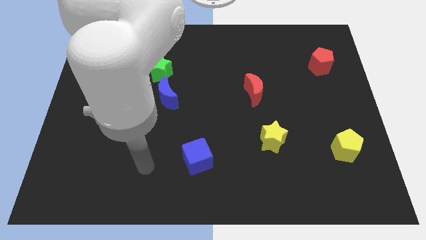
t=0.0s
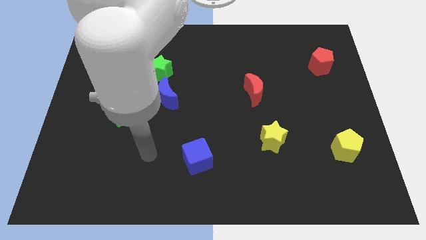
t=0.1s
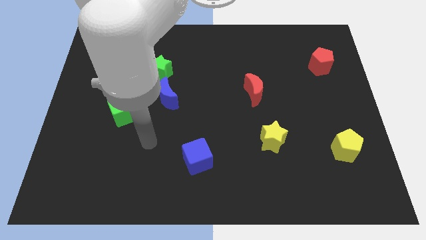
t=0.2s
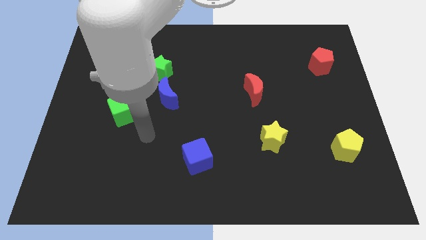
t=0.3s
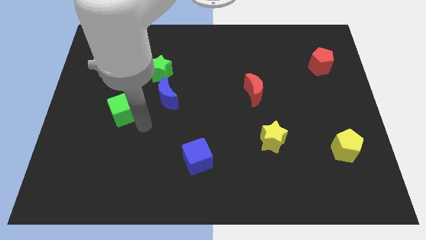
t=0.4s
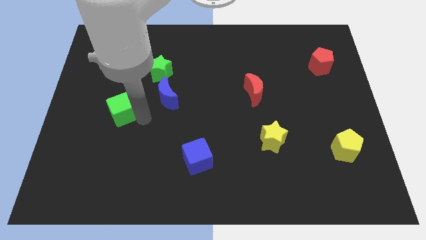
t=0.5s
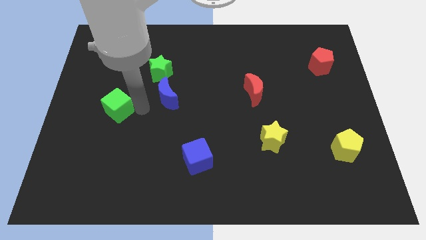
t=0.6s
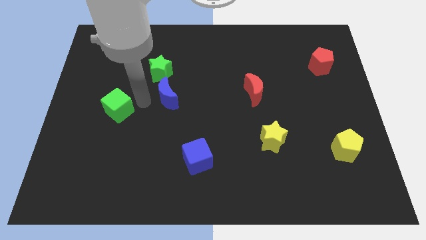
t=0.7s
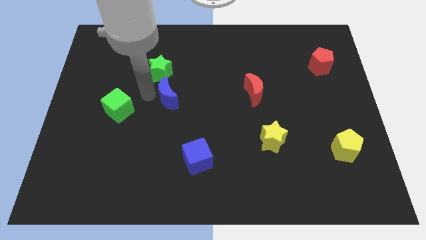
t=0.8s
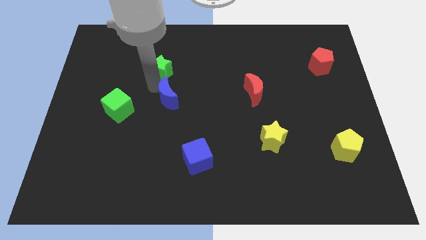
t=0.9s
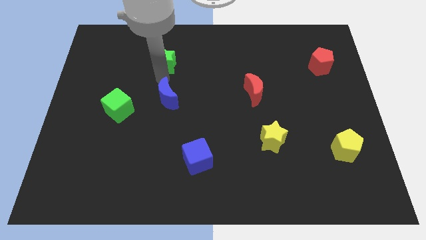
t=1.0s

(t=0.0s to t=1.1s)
pull the blue moon apart from the green star

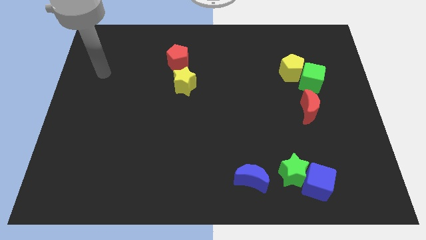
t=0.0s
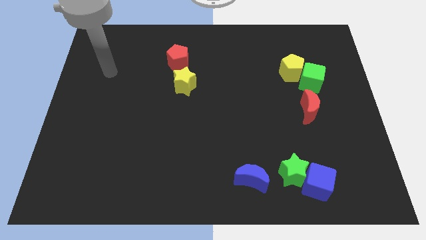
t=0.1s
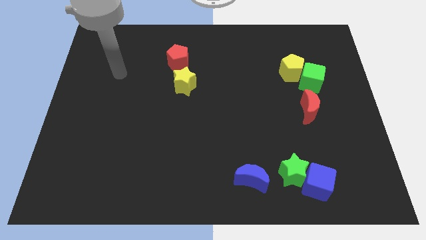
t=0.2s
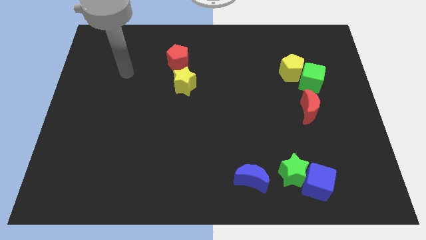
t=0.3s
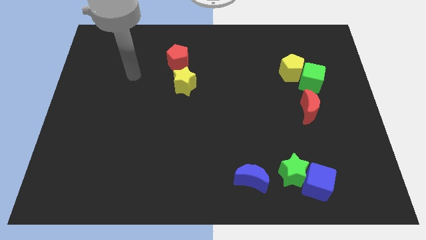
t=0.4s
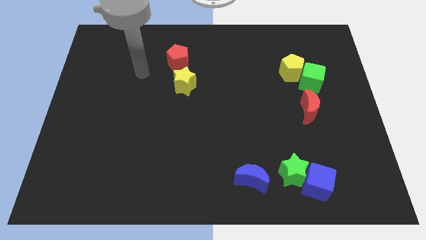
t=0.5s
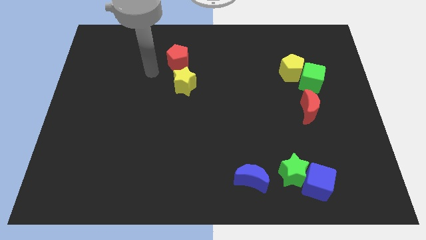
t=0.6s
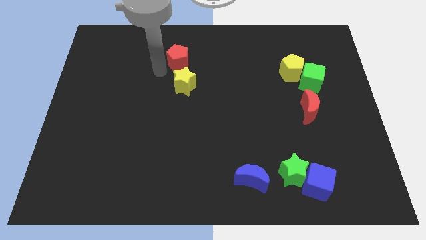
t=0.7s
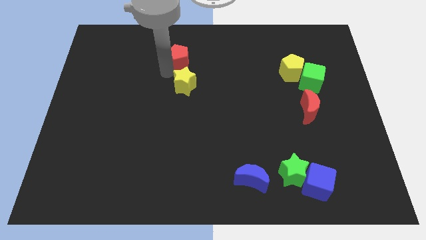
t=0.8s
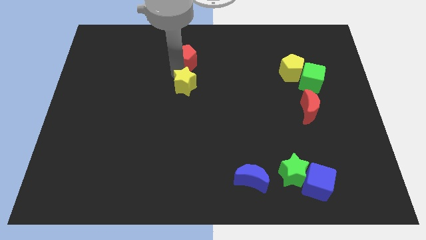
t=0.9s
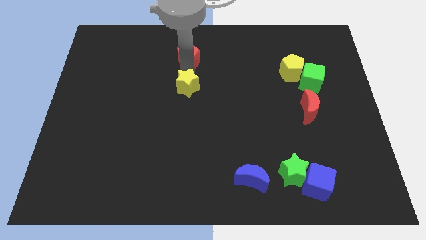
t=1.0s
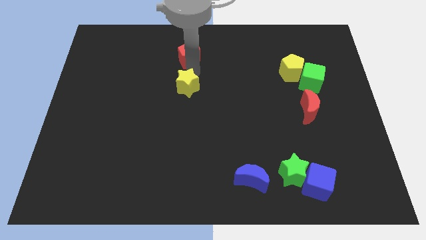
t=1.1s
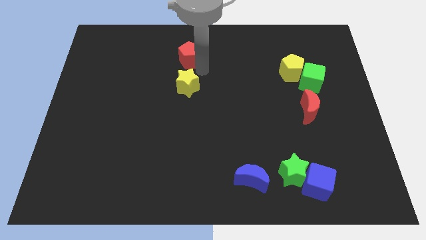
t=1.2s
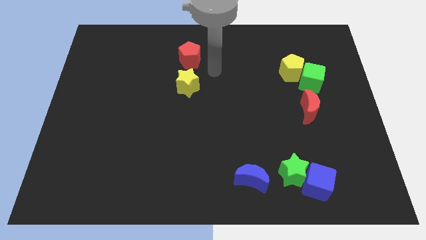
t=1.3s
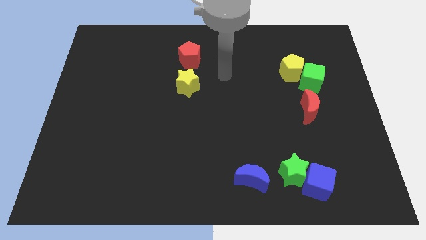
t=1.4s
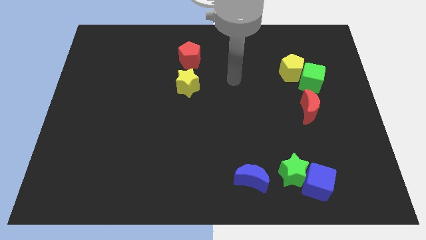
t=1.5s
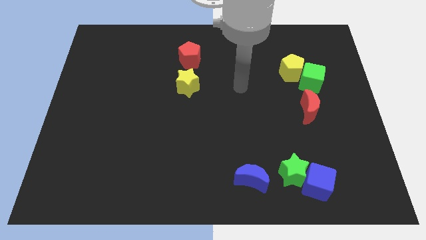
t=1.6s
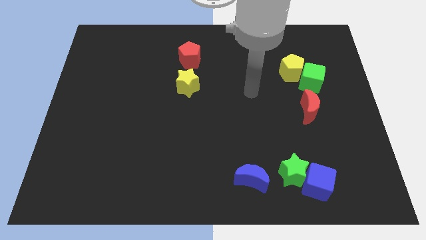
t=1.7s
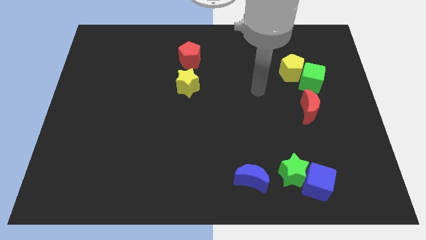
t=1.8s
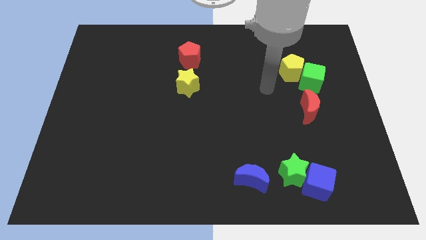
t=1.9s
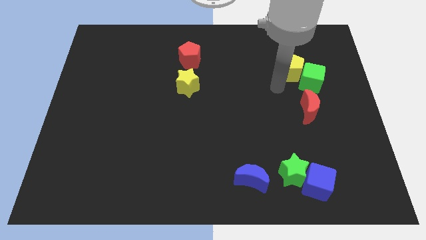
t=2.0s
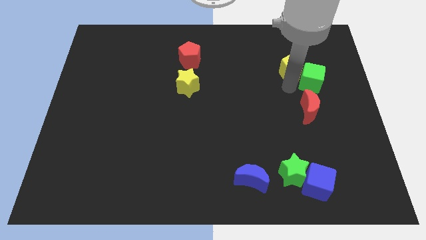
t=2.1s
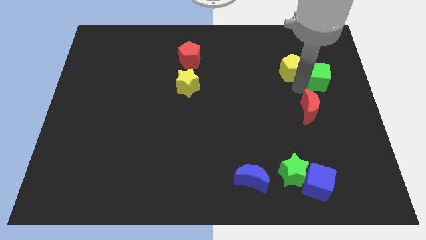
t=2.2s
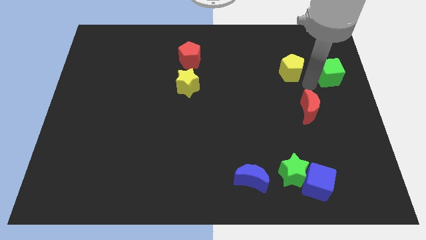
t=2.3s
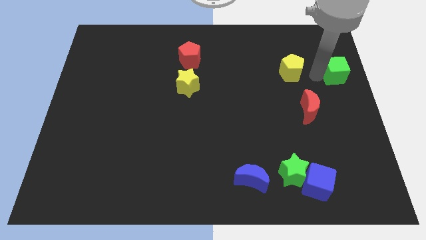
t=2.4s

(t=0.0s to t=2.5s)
separate the yellow pentagon from the green cube

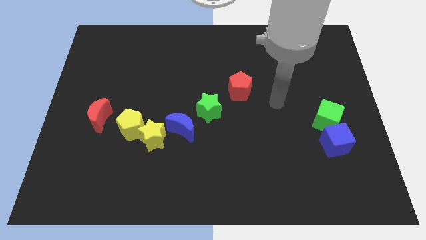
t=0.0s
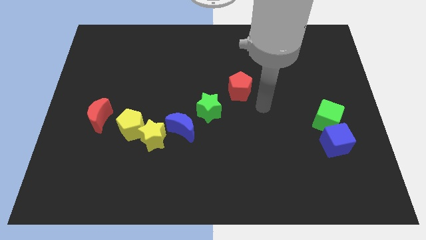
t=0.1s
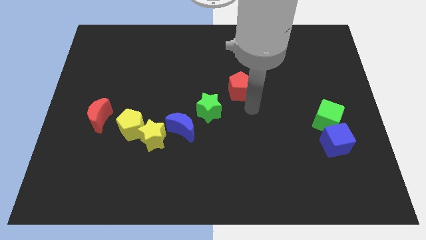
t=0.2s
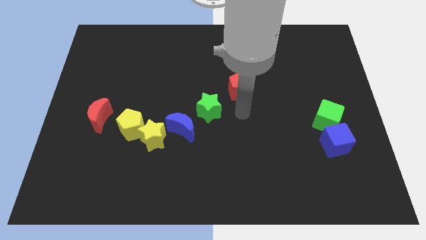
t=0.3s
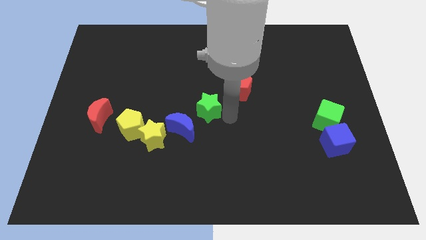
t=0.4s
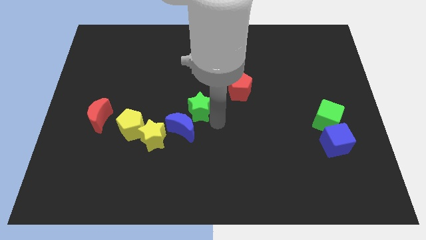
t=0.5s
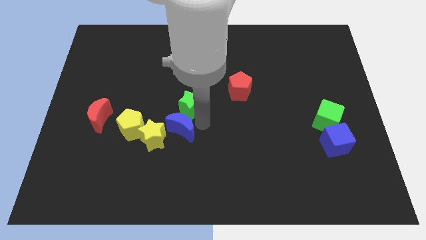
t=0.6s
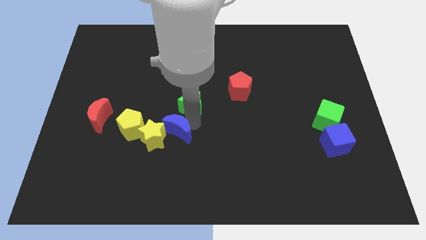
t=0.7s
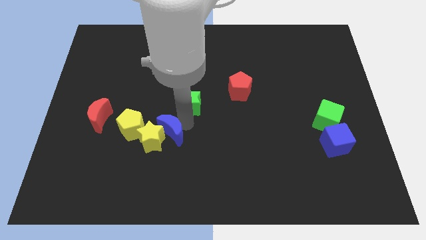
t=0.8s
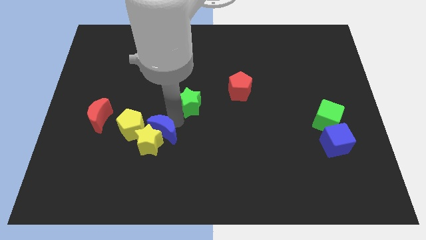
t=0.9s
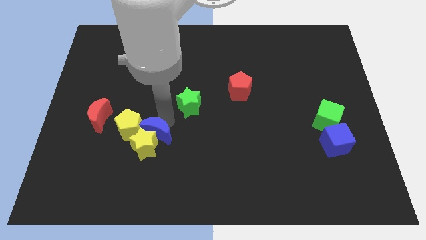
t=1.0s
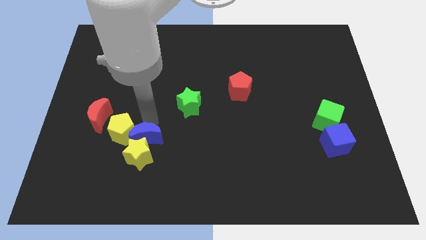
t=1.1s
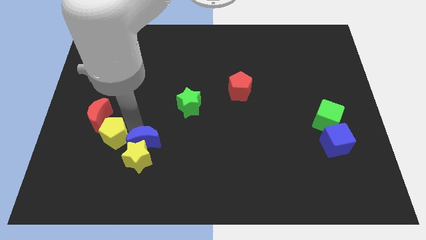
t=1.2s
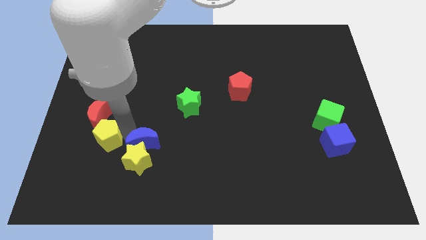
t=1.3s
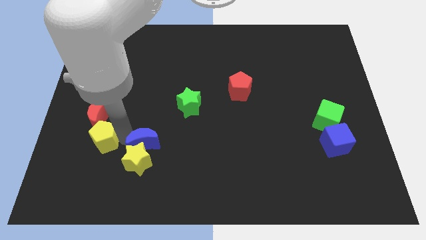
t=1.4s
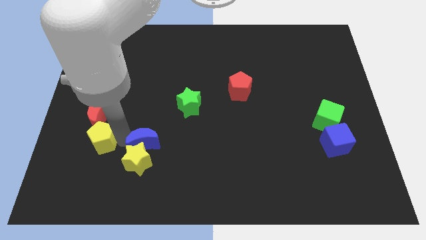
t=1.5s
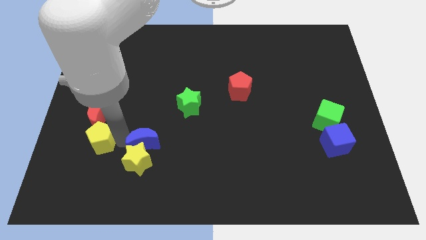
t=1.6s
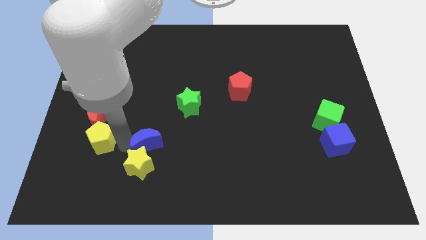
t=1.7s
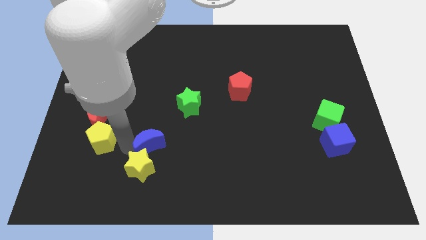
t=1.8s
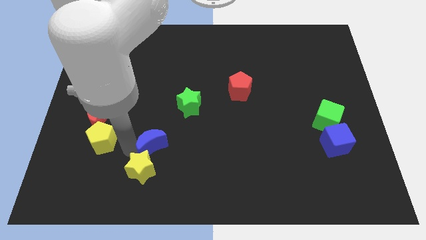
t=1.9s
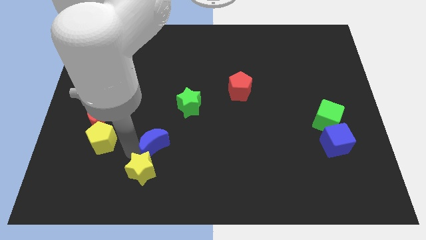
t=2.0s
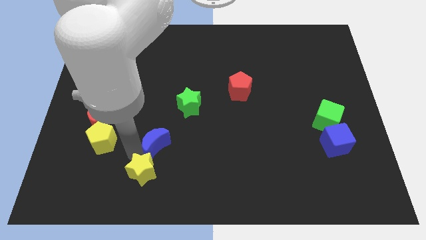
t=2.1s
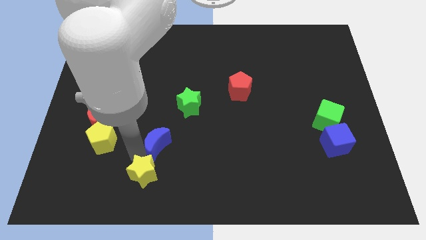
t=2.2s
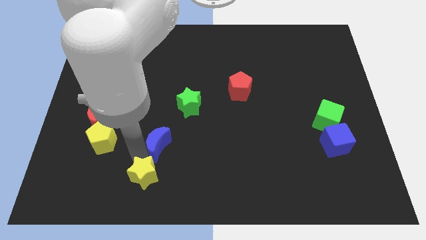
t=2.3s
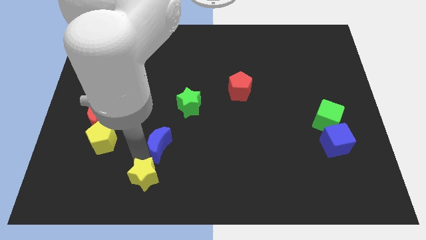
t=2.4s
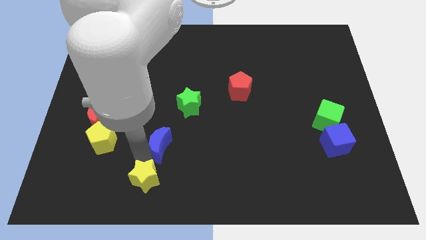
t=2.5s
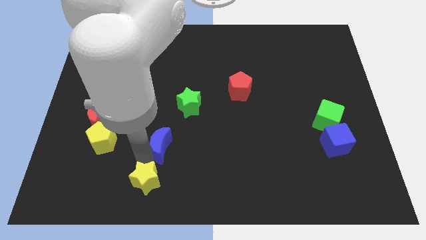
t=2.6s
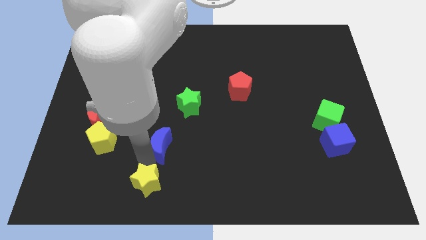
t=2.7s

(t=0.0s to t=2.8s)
separate the yellow star from the yellow pentagon and blue moon

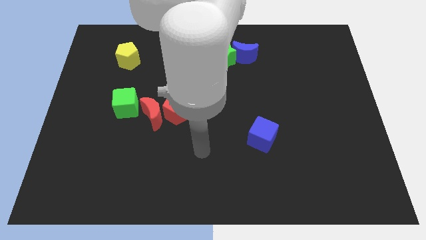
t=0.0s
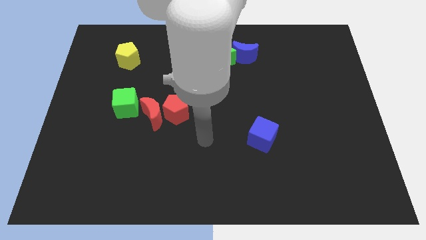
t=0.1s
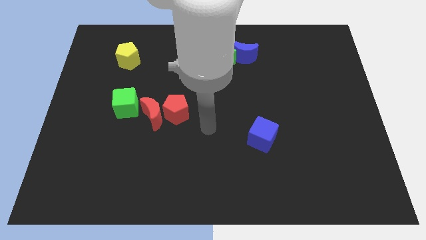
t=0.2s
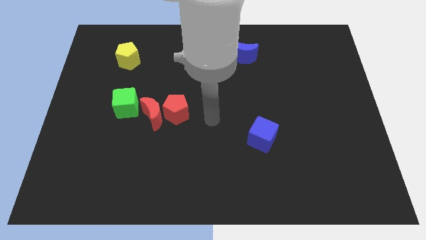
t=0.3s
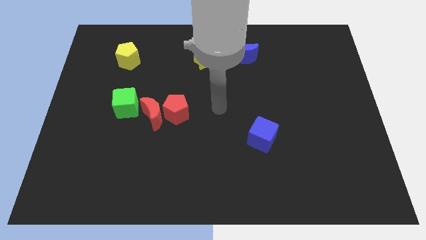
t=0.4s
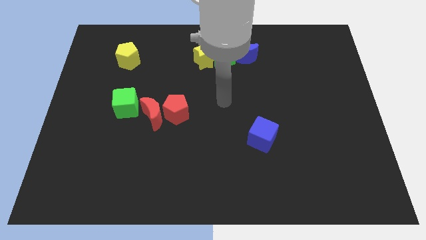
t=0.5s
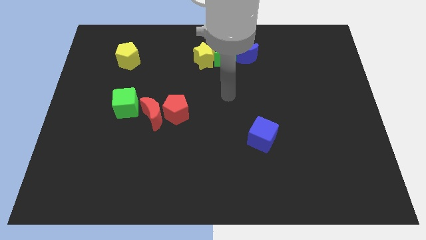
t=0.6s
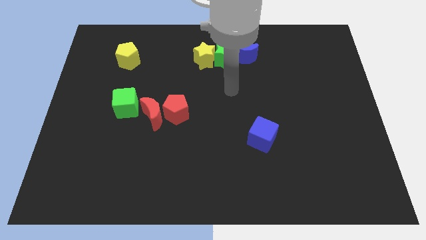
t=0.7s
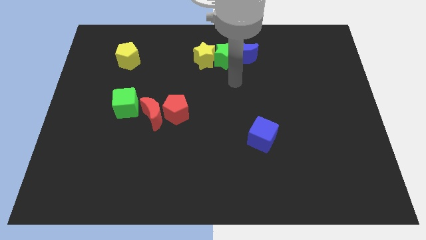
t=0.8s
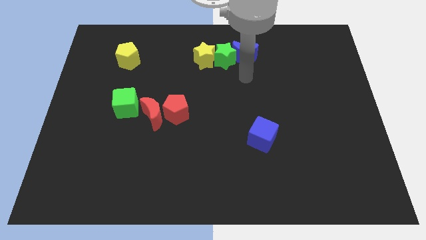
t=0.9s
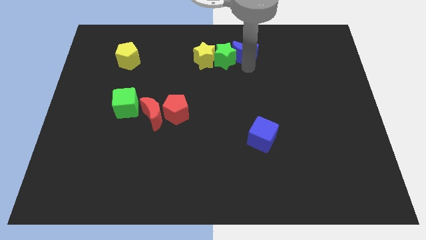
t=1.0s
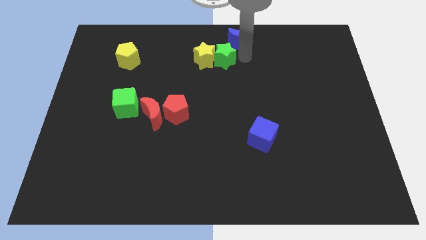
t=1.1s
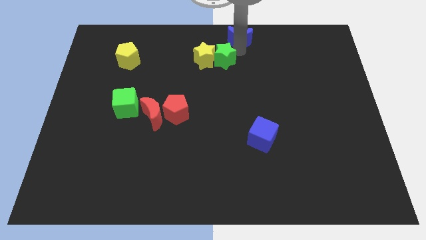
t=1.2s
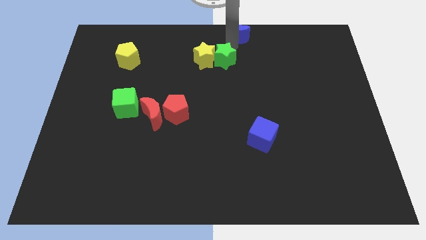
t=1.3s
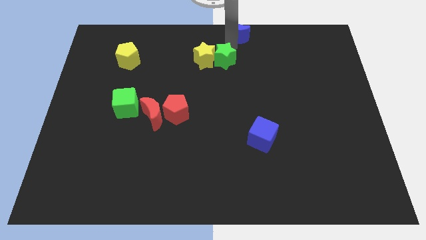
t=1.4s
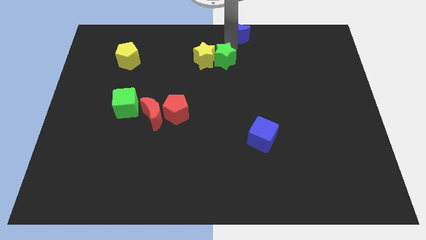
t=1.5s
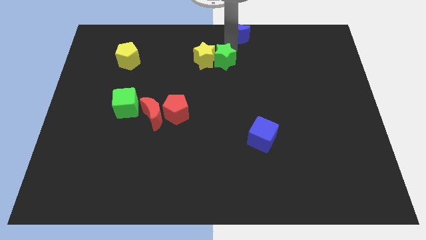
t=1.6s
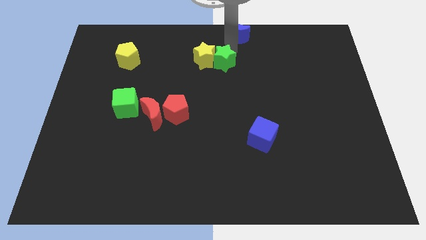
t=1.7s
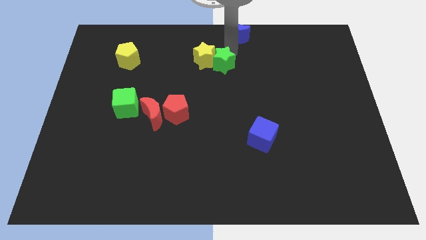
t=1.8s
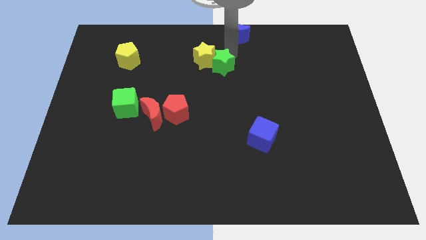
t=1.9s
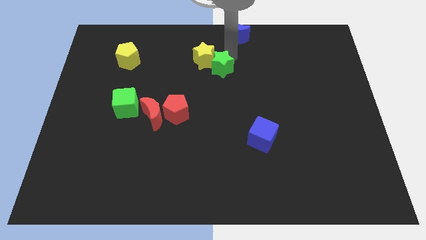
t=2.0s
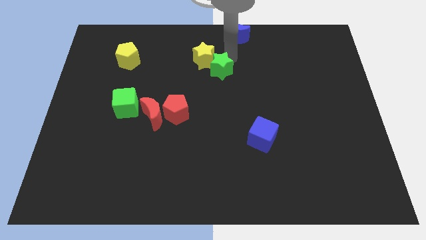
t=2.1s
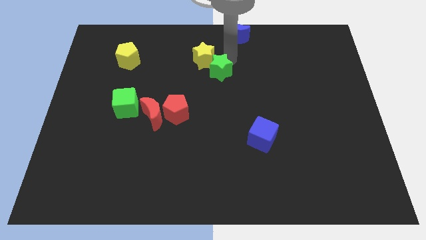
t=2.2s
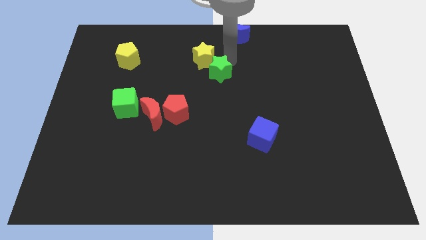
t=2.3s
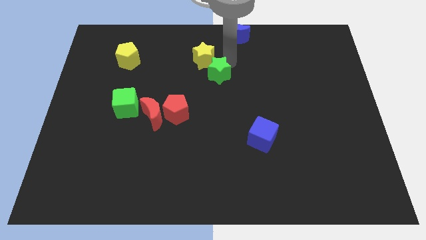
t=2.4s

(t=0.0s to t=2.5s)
separate the green star from the yellow star and blue moon

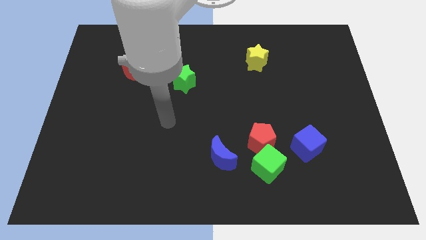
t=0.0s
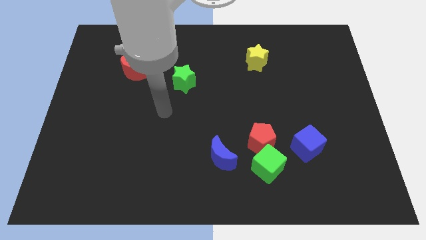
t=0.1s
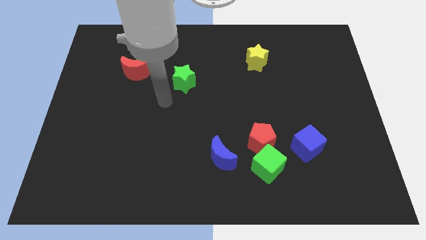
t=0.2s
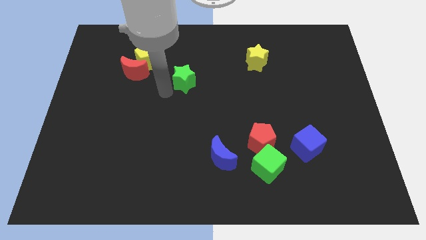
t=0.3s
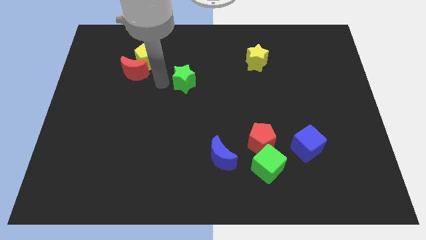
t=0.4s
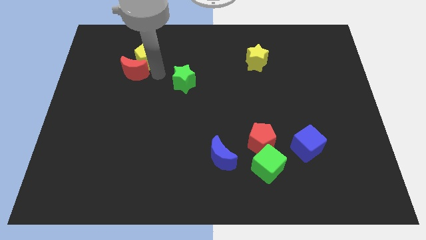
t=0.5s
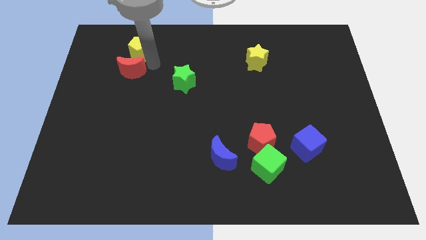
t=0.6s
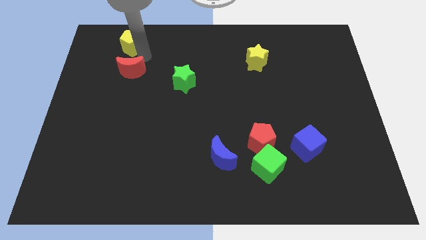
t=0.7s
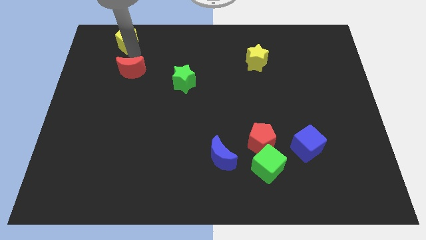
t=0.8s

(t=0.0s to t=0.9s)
pull the red moon apart from the yellow pentagon
